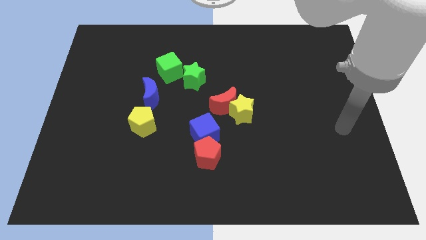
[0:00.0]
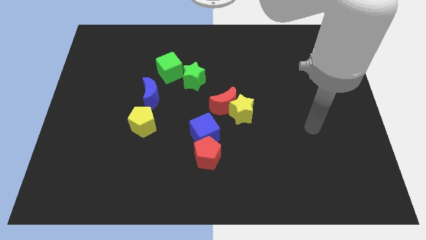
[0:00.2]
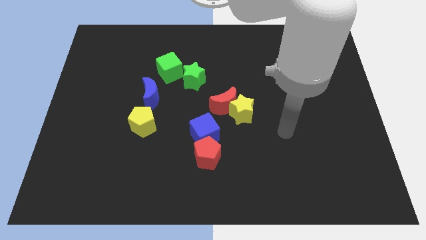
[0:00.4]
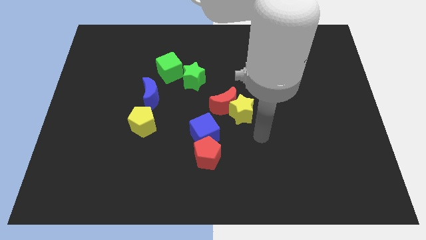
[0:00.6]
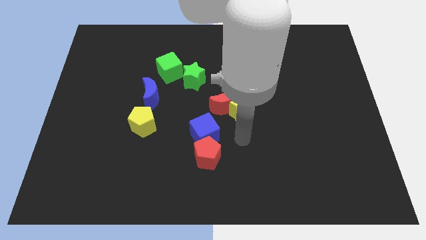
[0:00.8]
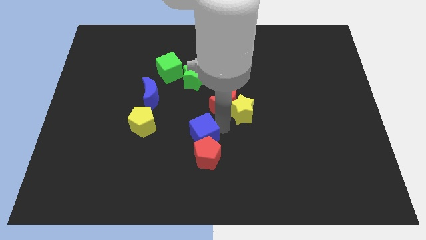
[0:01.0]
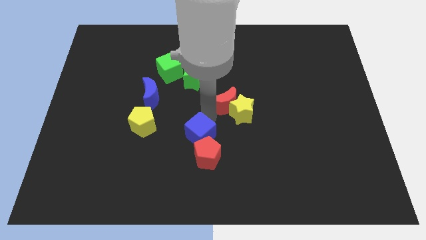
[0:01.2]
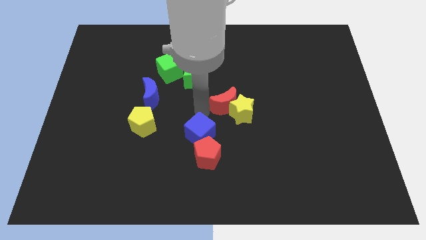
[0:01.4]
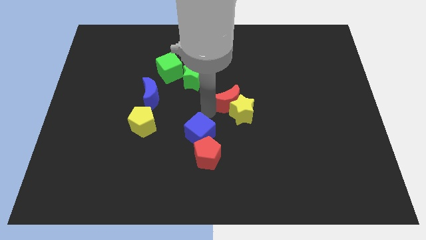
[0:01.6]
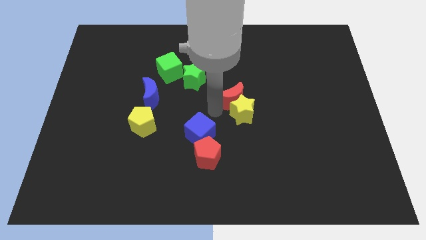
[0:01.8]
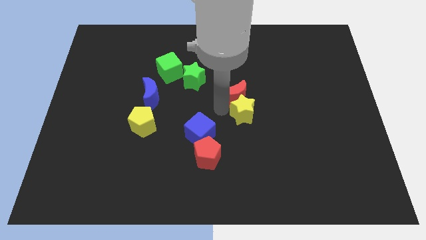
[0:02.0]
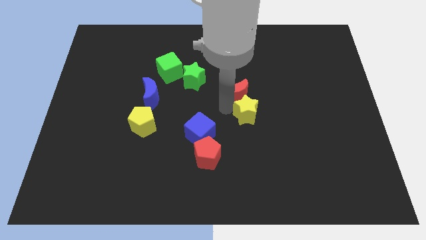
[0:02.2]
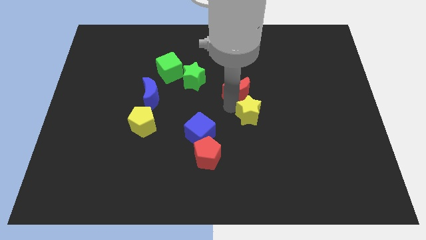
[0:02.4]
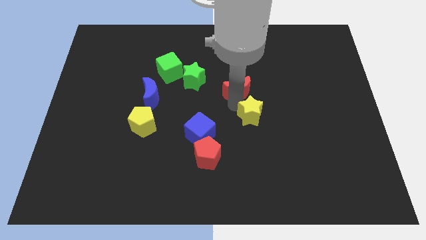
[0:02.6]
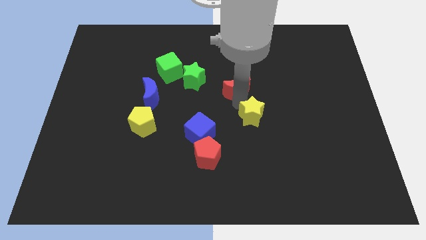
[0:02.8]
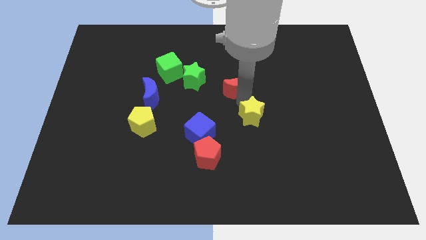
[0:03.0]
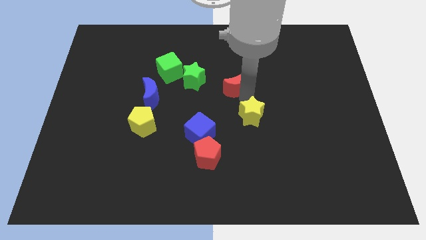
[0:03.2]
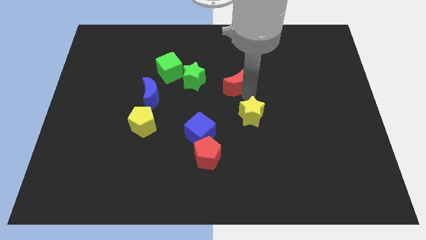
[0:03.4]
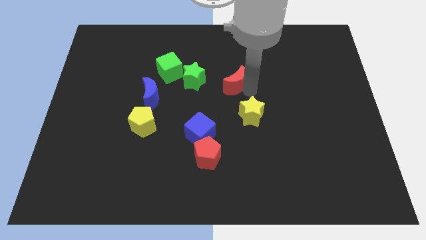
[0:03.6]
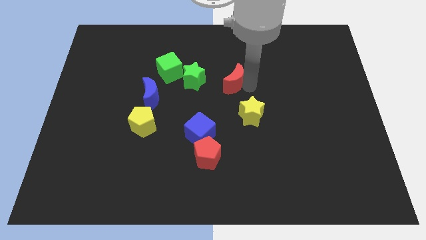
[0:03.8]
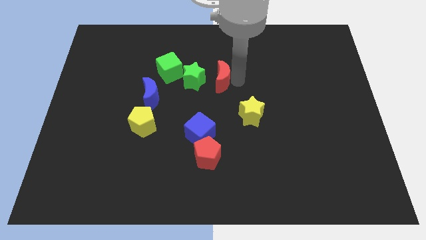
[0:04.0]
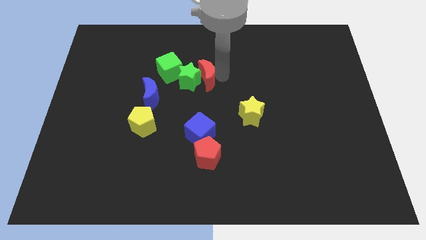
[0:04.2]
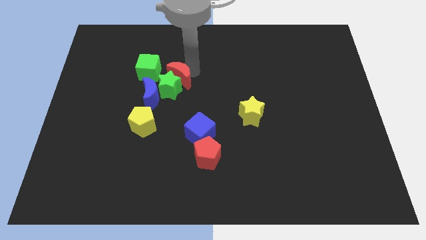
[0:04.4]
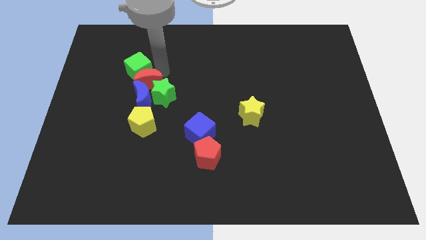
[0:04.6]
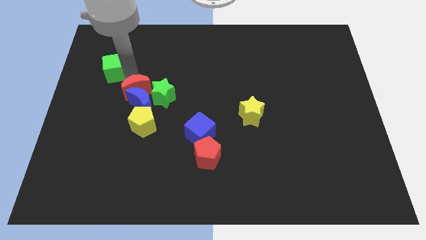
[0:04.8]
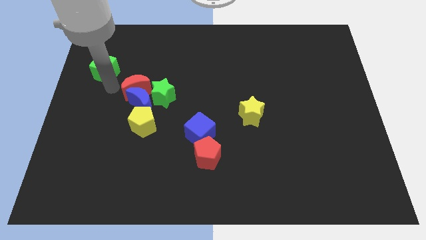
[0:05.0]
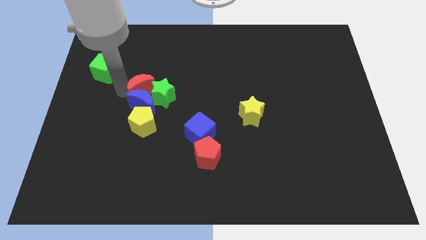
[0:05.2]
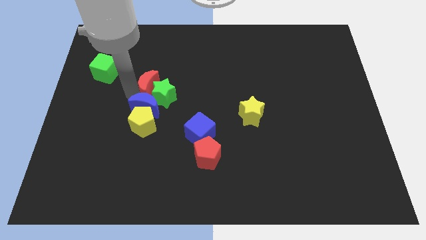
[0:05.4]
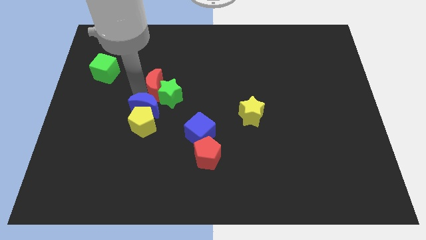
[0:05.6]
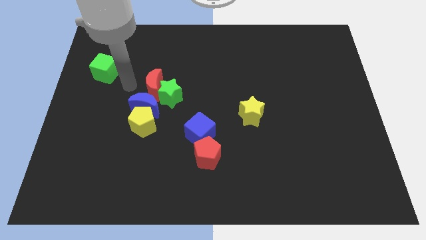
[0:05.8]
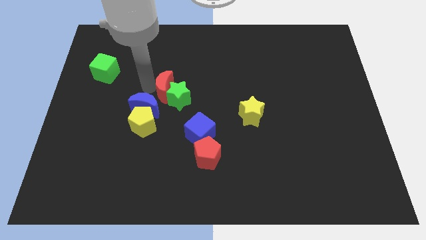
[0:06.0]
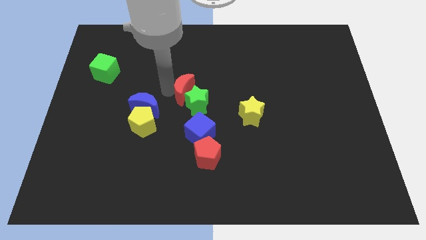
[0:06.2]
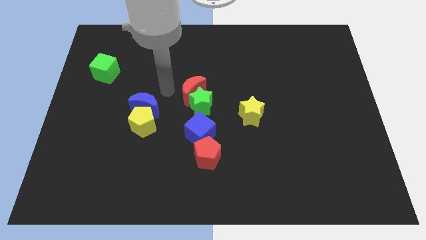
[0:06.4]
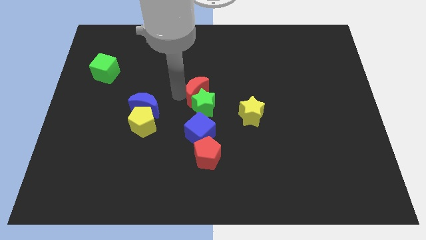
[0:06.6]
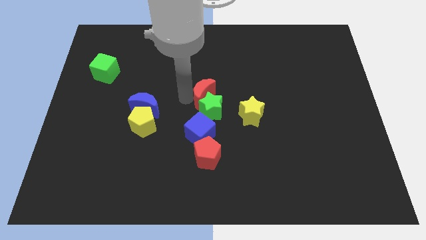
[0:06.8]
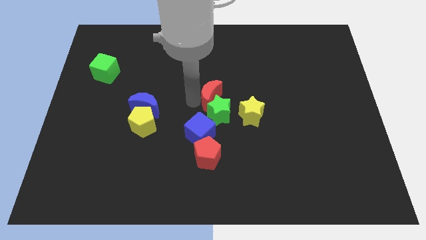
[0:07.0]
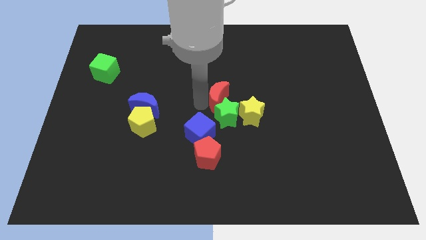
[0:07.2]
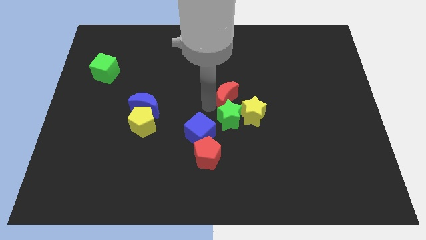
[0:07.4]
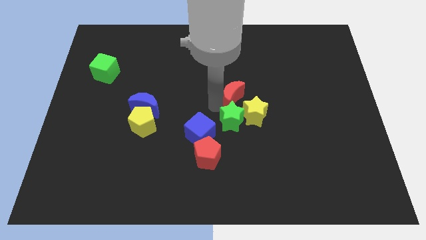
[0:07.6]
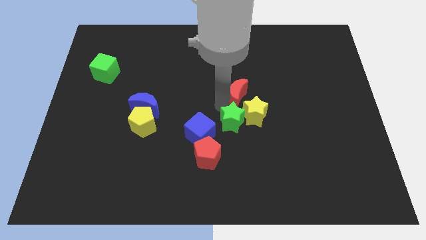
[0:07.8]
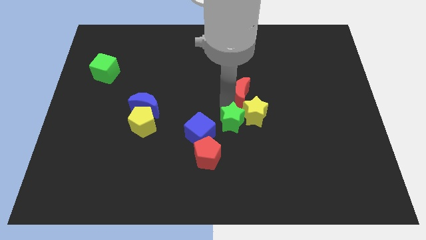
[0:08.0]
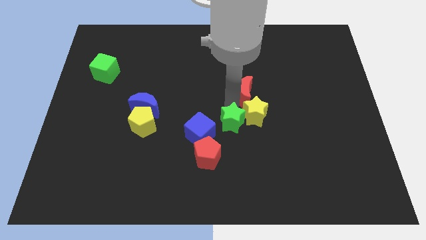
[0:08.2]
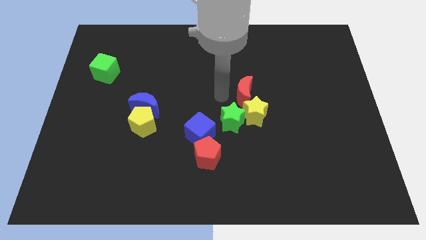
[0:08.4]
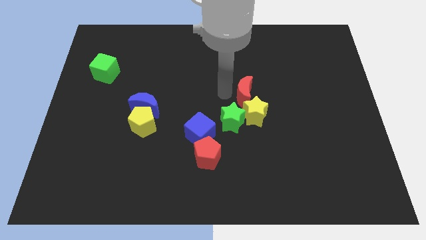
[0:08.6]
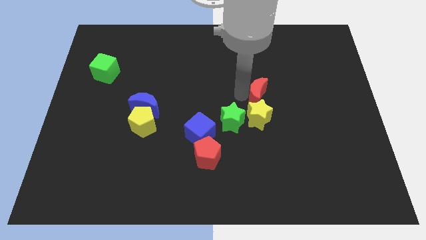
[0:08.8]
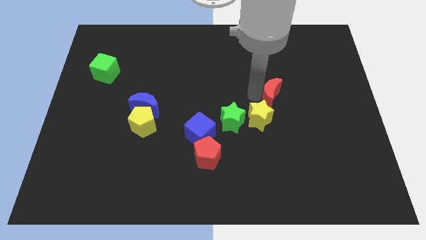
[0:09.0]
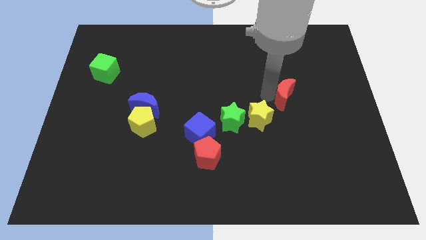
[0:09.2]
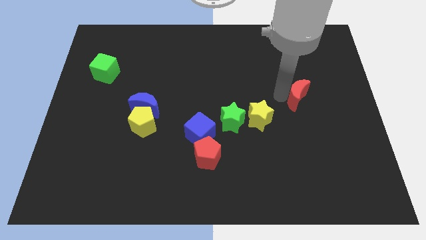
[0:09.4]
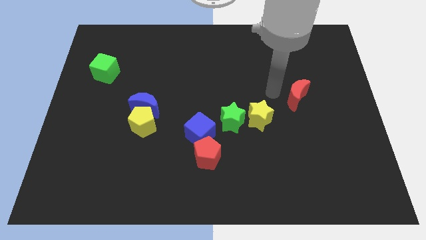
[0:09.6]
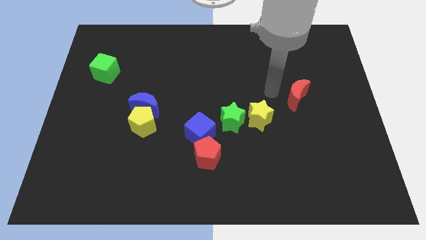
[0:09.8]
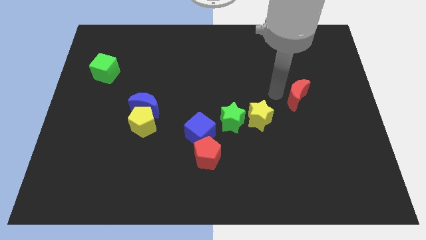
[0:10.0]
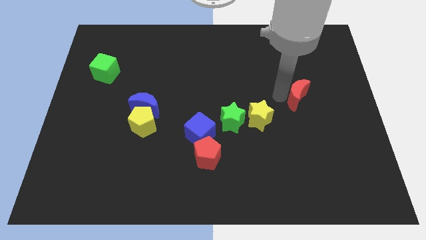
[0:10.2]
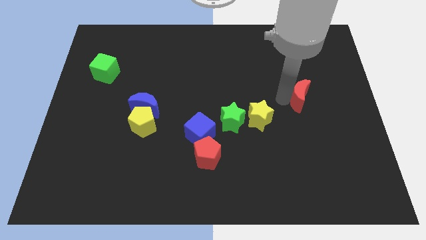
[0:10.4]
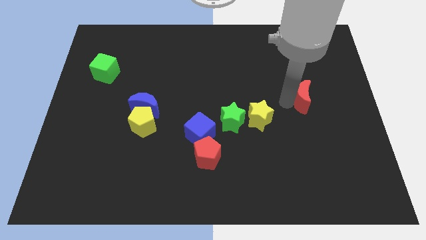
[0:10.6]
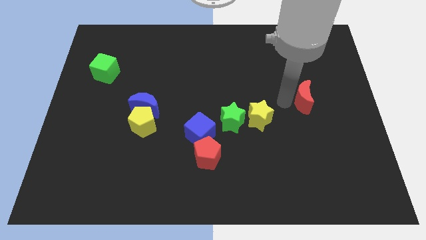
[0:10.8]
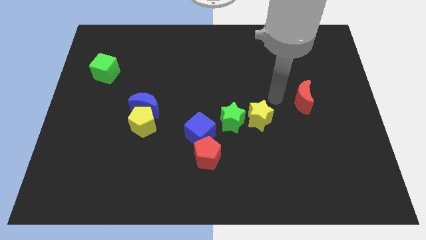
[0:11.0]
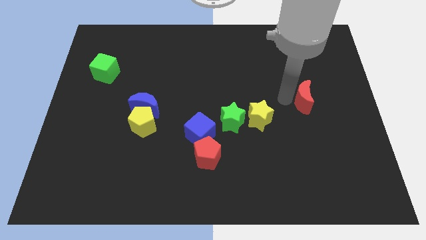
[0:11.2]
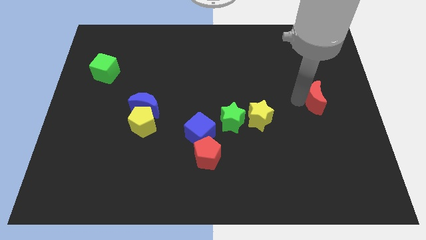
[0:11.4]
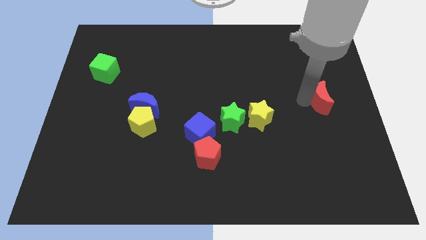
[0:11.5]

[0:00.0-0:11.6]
move the red moon to the center right
